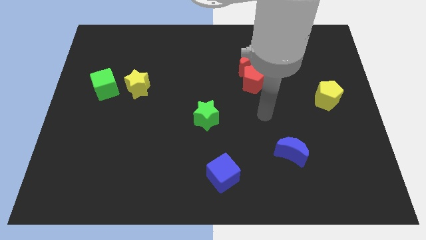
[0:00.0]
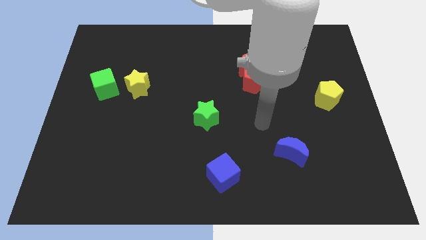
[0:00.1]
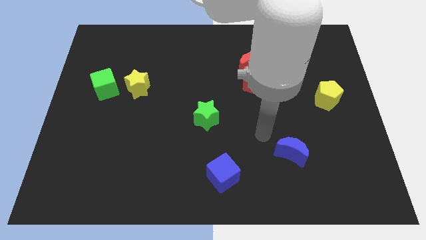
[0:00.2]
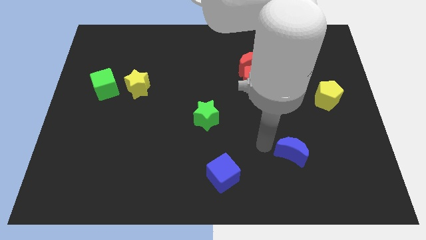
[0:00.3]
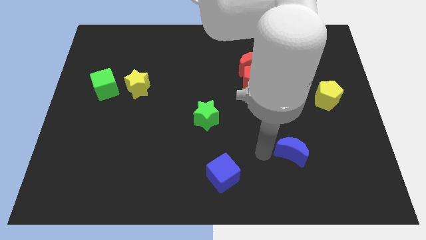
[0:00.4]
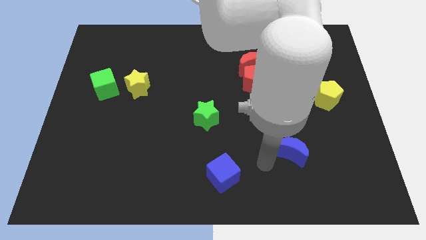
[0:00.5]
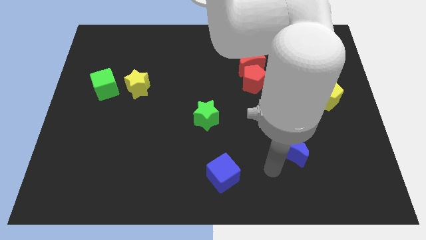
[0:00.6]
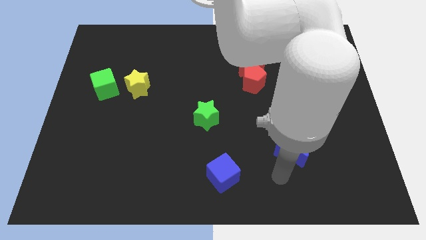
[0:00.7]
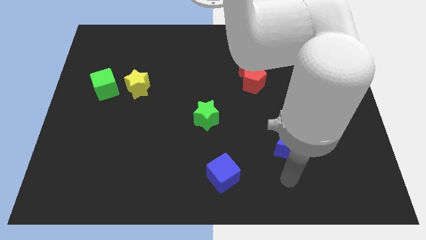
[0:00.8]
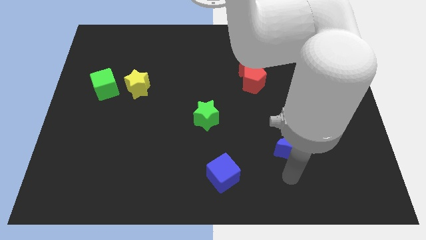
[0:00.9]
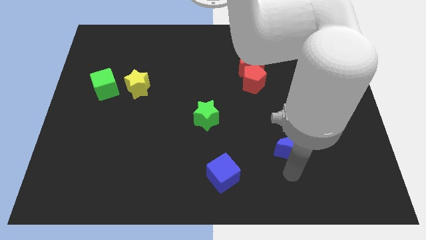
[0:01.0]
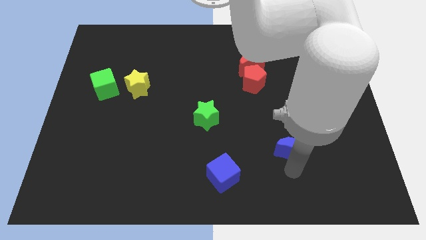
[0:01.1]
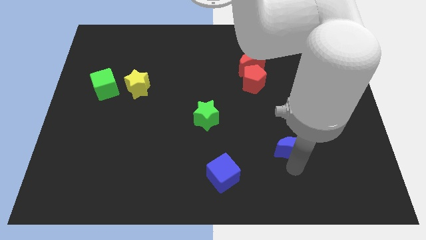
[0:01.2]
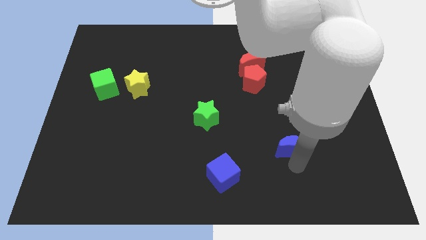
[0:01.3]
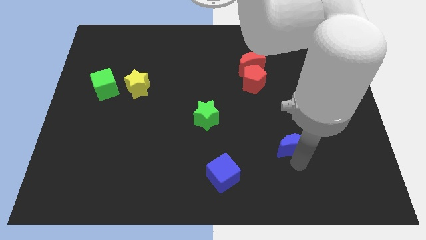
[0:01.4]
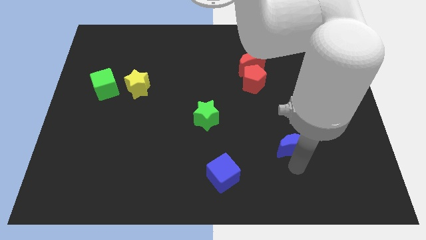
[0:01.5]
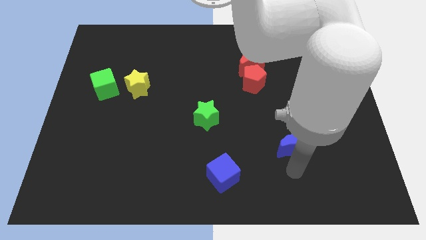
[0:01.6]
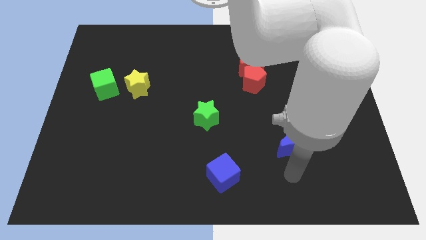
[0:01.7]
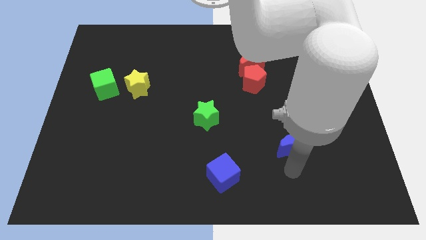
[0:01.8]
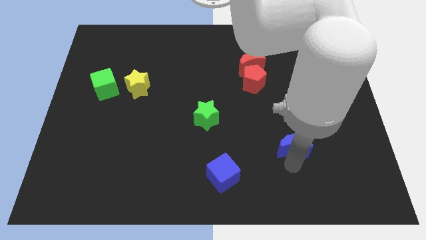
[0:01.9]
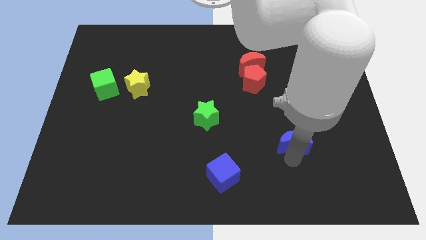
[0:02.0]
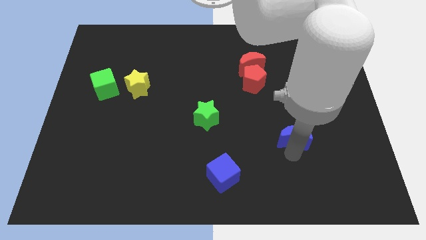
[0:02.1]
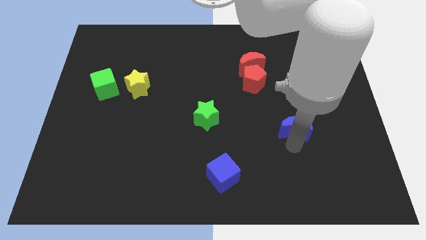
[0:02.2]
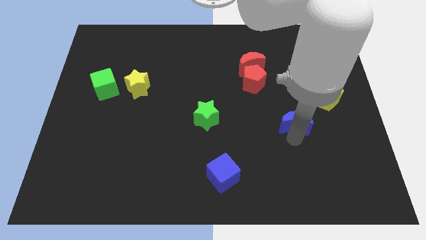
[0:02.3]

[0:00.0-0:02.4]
slide the blue moon somewhat up

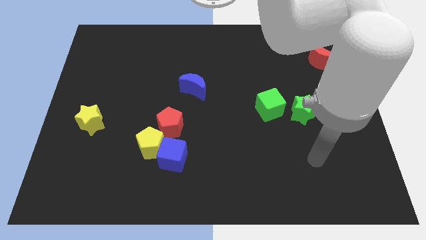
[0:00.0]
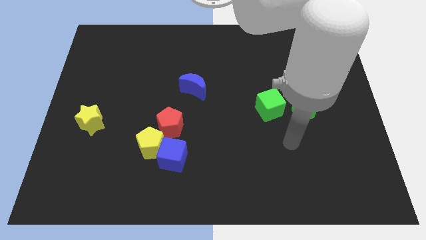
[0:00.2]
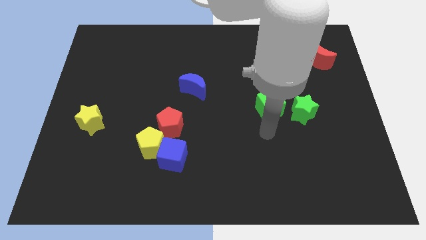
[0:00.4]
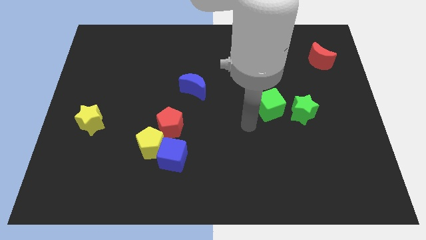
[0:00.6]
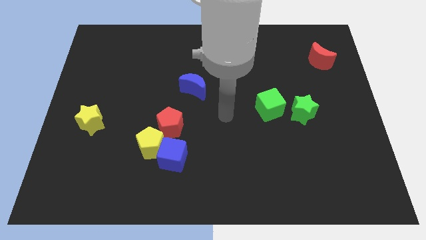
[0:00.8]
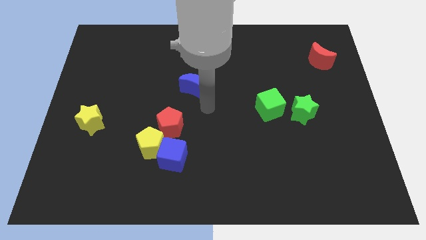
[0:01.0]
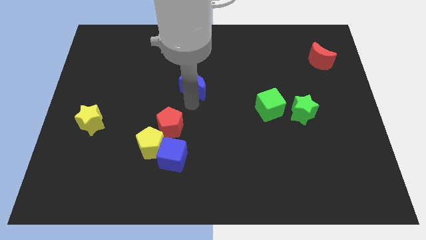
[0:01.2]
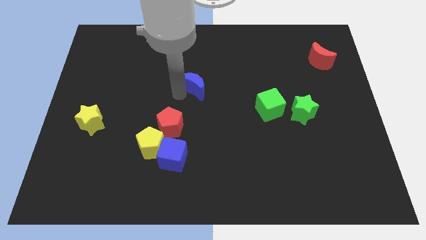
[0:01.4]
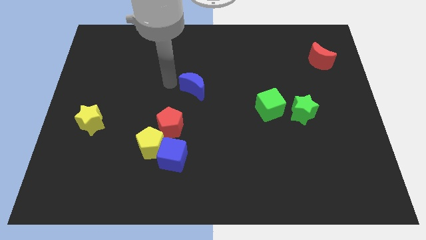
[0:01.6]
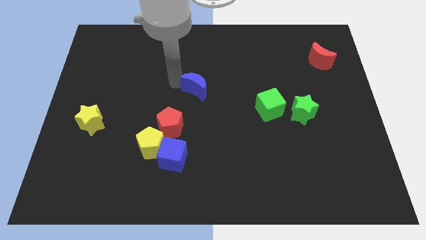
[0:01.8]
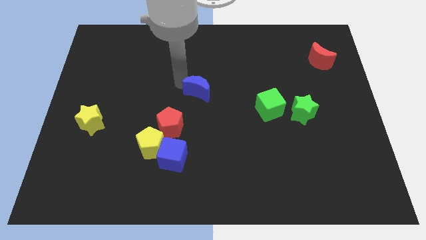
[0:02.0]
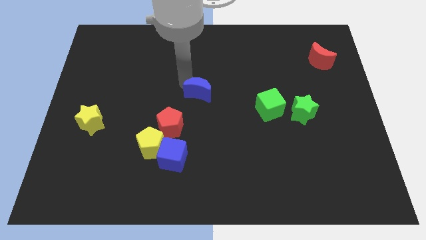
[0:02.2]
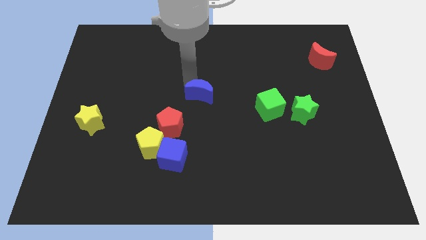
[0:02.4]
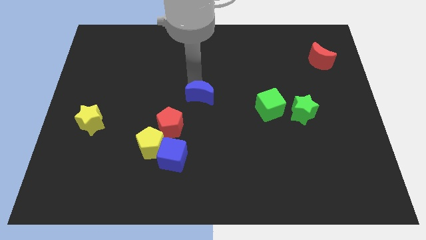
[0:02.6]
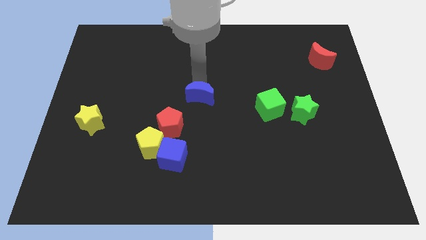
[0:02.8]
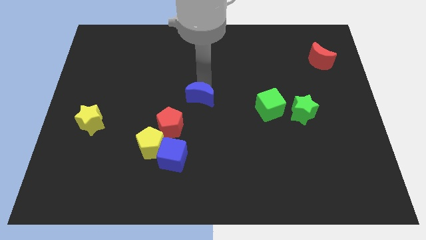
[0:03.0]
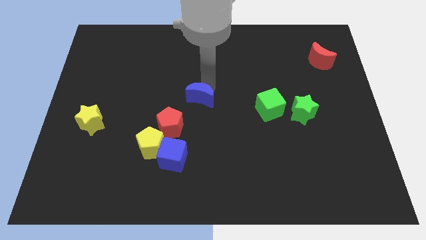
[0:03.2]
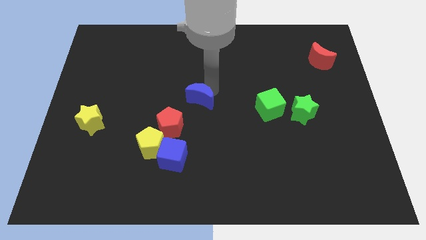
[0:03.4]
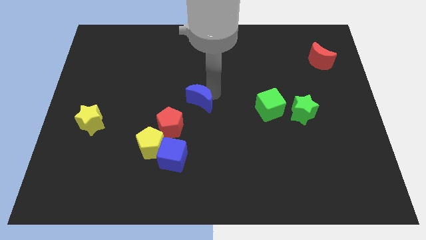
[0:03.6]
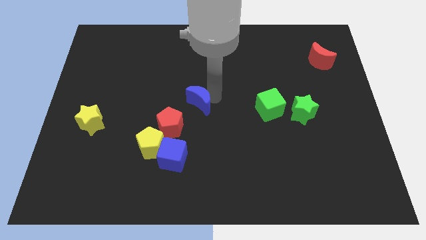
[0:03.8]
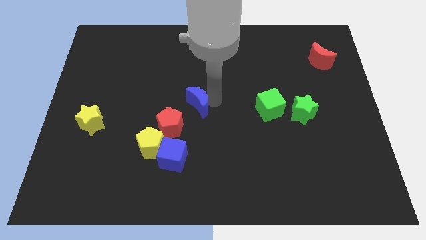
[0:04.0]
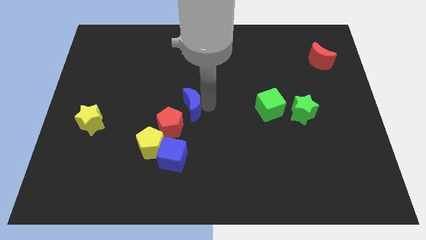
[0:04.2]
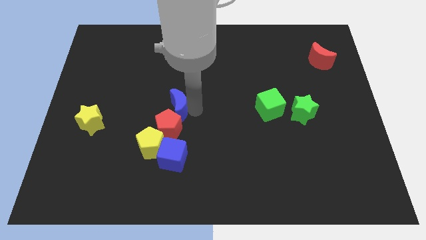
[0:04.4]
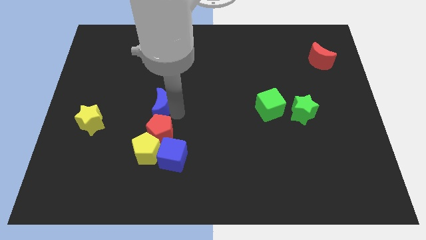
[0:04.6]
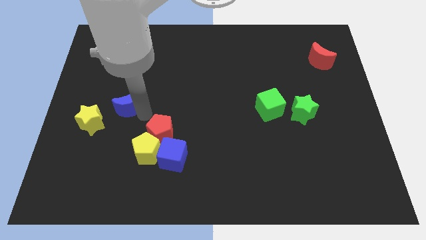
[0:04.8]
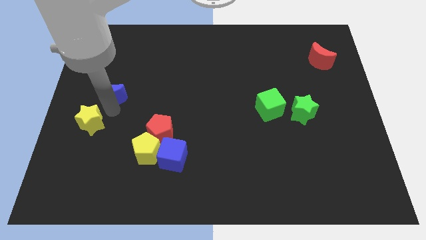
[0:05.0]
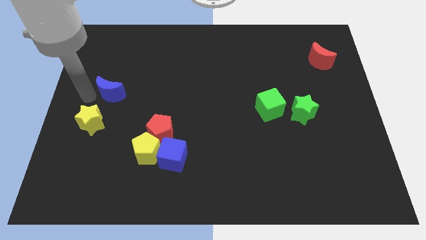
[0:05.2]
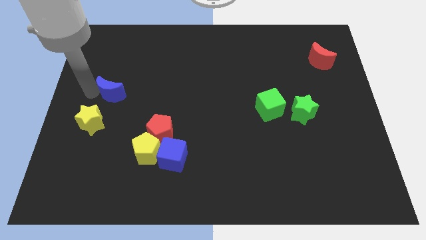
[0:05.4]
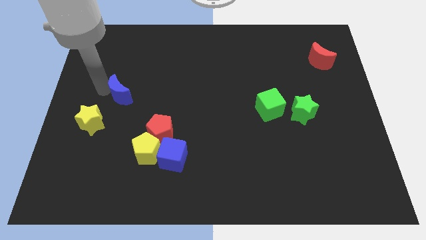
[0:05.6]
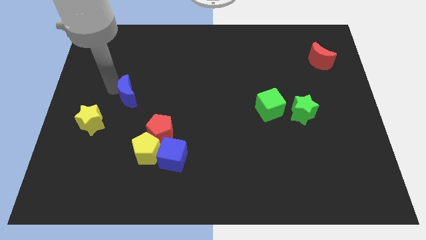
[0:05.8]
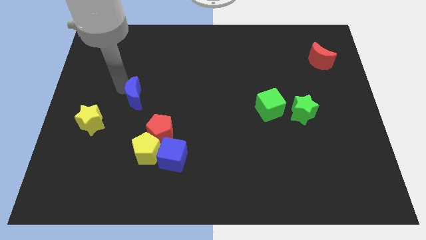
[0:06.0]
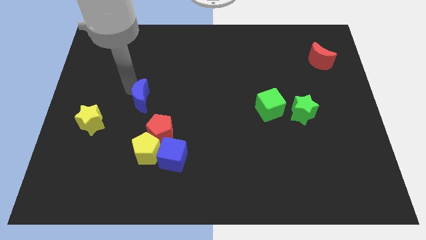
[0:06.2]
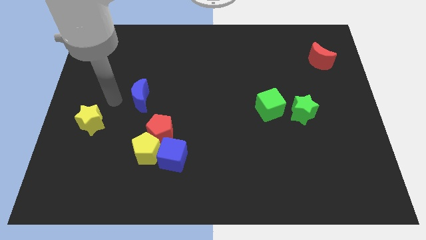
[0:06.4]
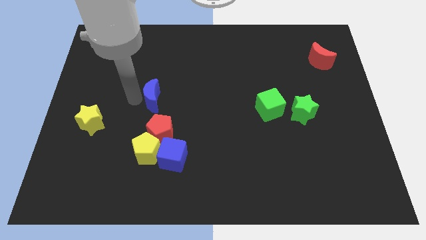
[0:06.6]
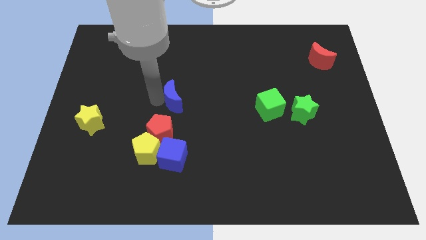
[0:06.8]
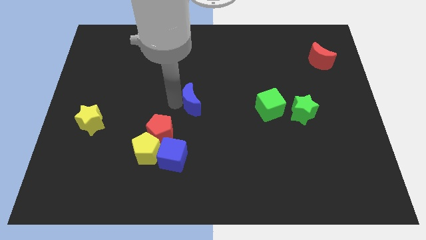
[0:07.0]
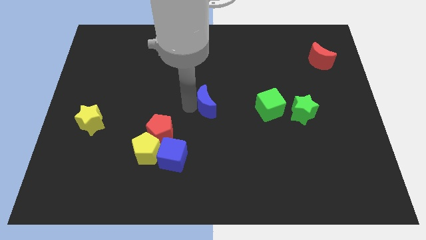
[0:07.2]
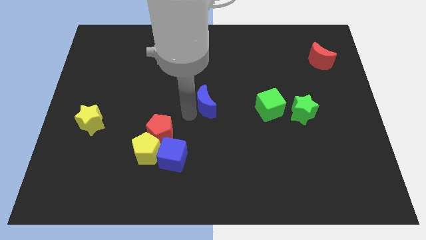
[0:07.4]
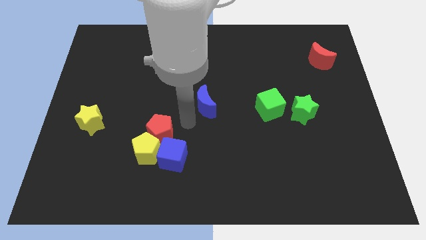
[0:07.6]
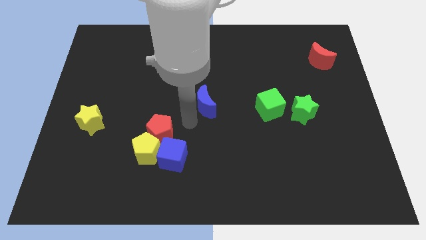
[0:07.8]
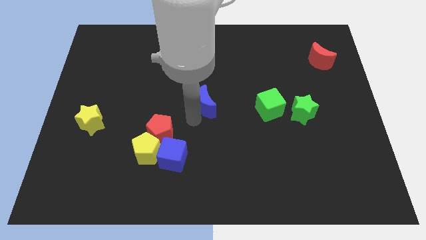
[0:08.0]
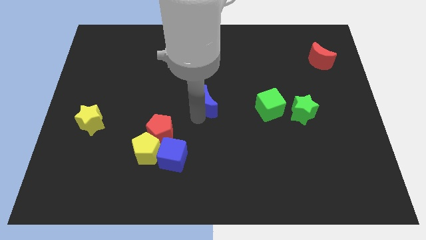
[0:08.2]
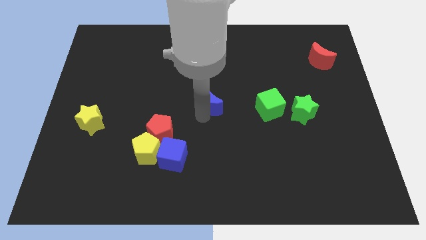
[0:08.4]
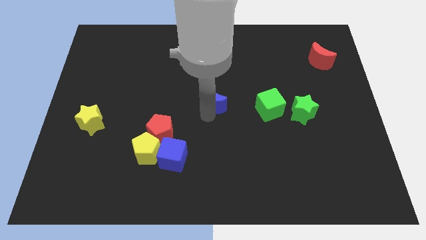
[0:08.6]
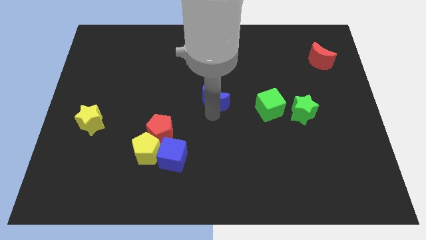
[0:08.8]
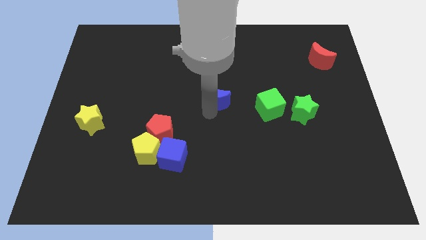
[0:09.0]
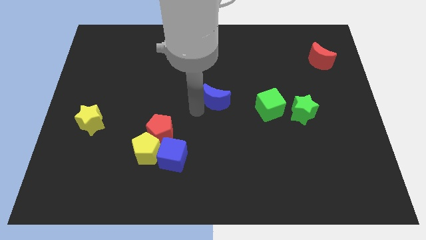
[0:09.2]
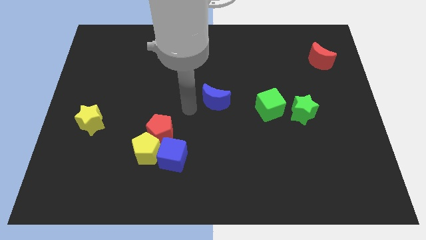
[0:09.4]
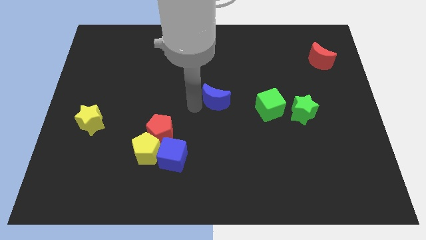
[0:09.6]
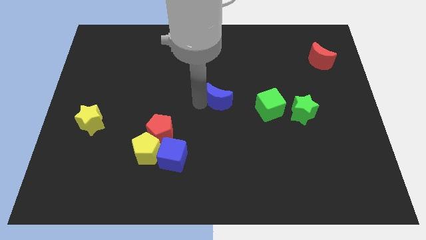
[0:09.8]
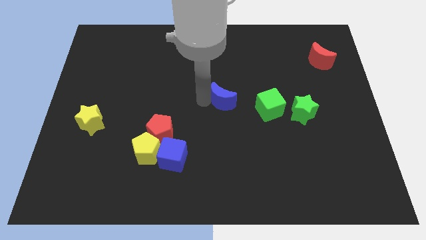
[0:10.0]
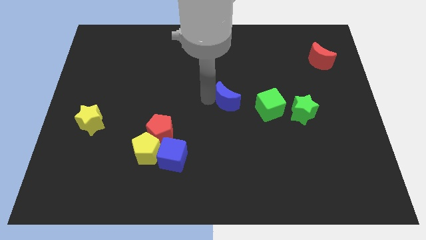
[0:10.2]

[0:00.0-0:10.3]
slightly slide the blue moon to the right

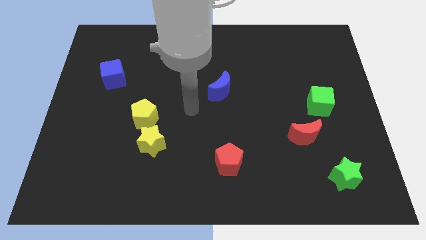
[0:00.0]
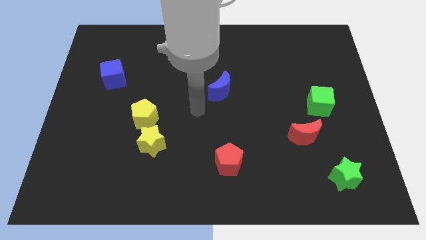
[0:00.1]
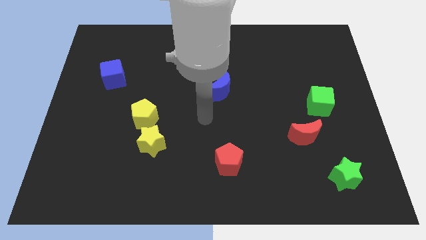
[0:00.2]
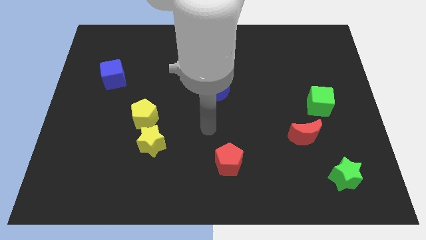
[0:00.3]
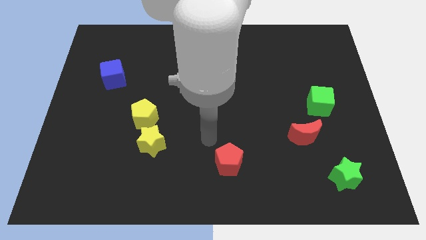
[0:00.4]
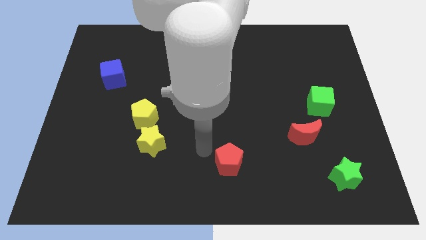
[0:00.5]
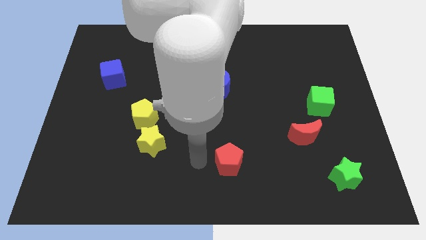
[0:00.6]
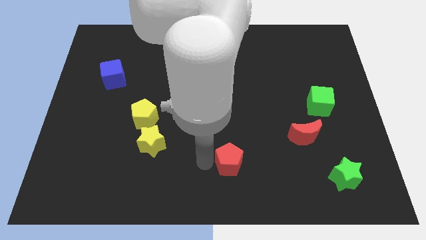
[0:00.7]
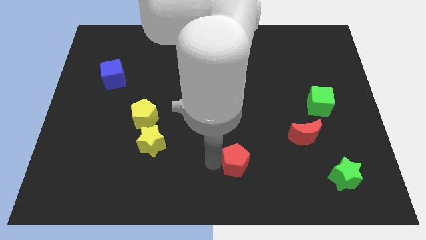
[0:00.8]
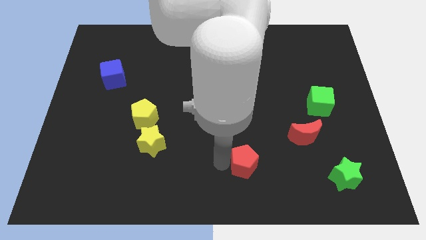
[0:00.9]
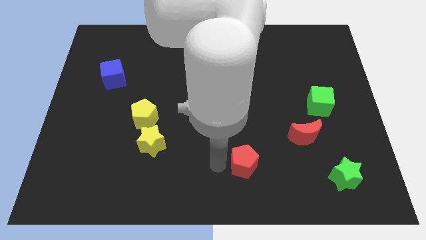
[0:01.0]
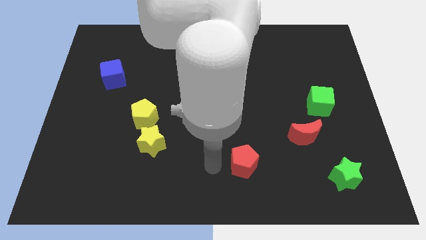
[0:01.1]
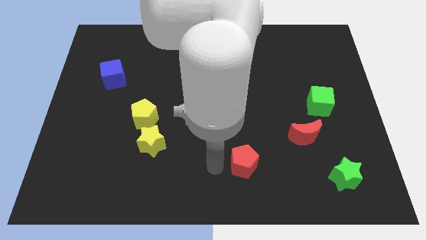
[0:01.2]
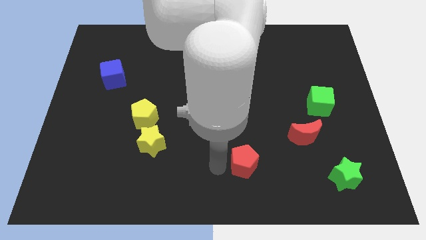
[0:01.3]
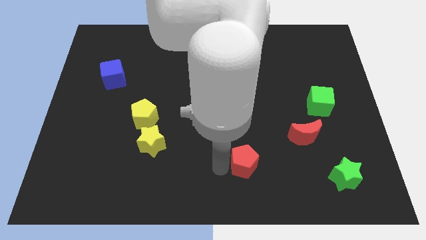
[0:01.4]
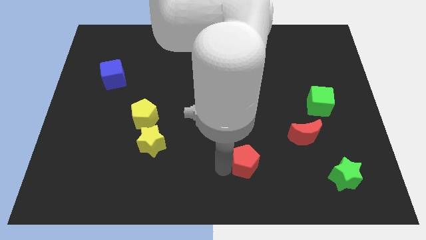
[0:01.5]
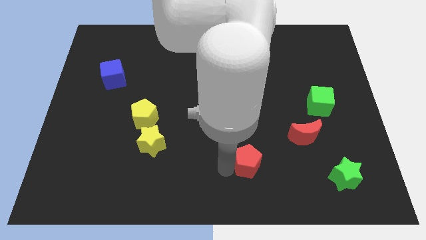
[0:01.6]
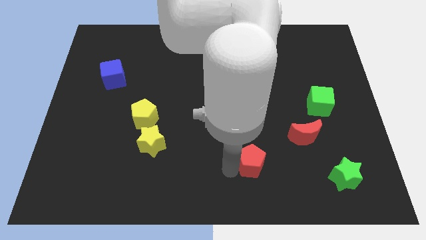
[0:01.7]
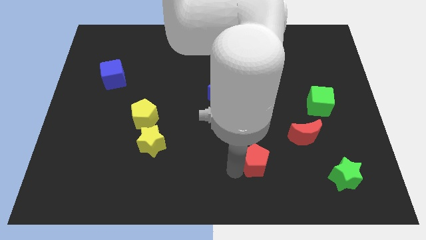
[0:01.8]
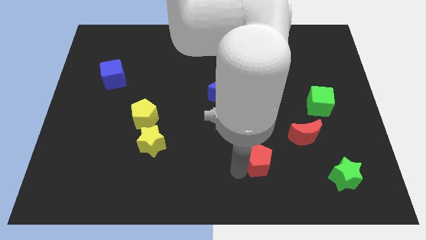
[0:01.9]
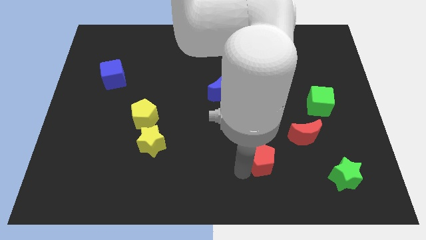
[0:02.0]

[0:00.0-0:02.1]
slightly slide the red pentagon right
